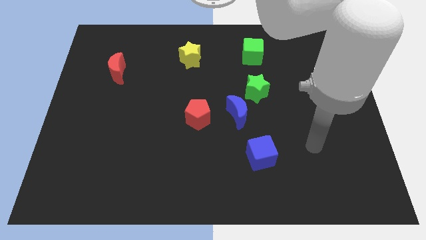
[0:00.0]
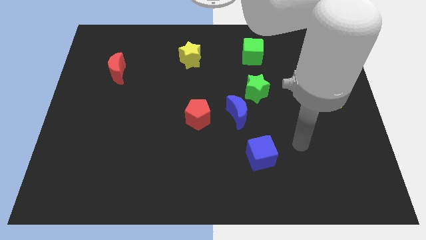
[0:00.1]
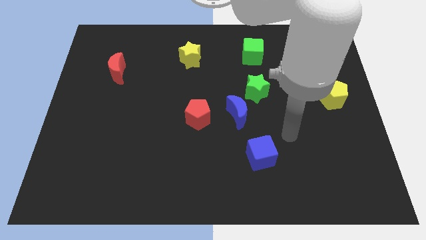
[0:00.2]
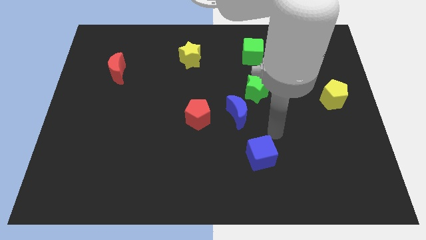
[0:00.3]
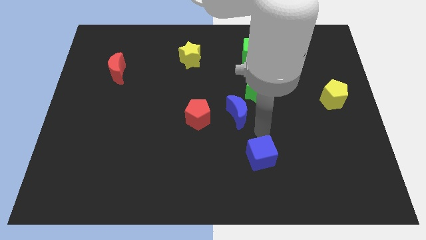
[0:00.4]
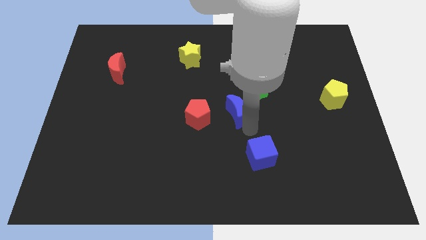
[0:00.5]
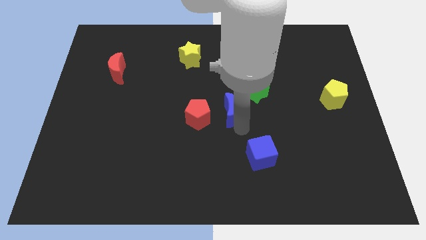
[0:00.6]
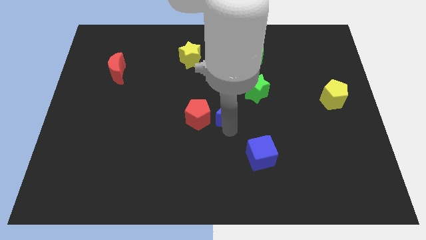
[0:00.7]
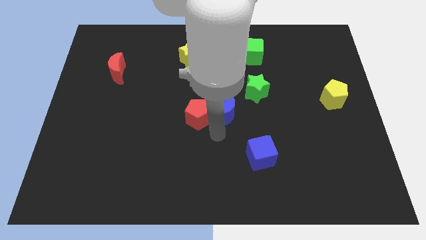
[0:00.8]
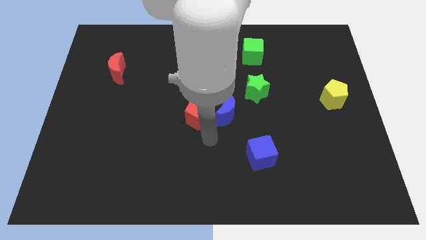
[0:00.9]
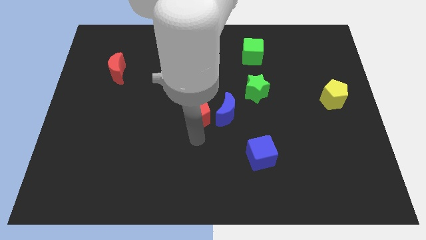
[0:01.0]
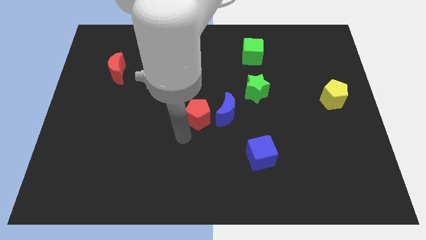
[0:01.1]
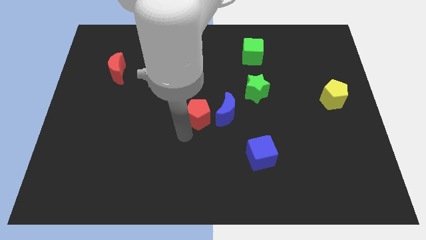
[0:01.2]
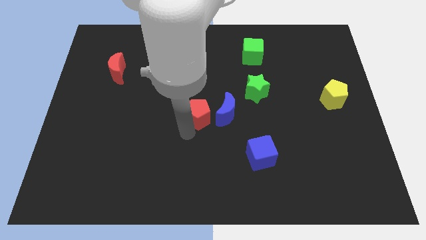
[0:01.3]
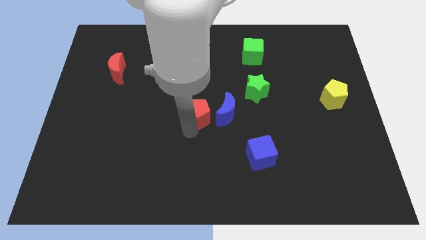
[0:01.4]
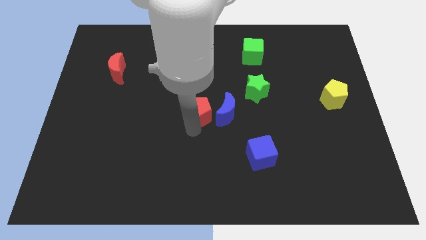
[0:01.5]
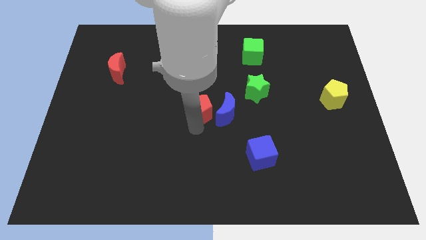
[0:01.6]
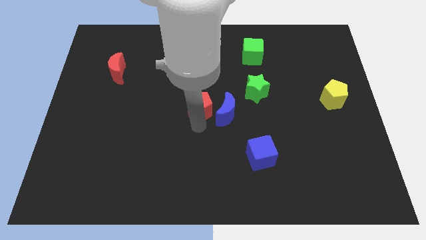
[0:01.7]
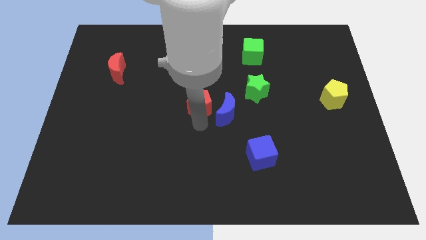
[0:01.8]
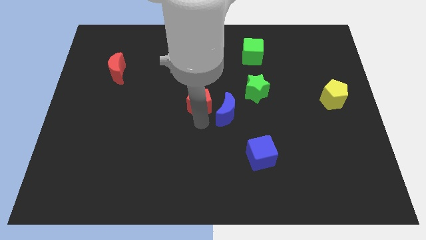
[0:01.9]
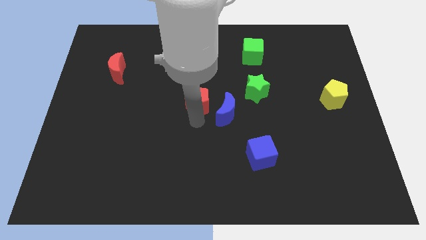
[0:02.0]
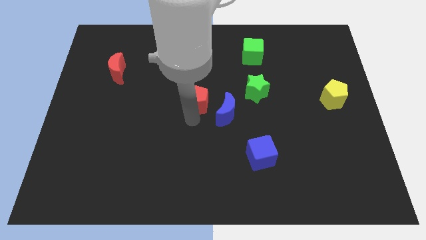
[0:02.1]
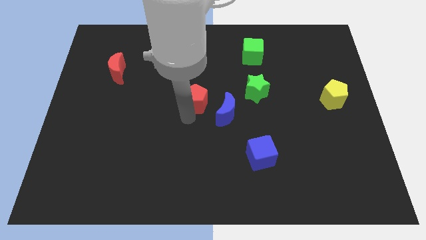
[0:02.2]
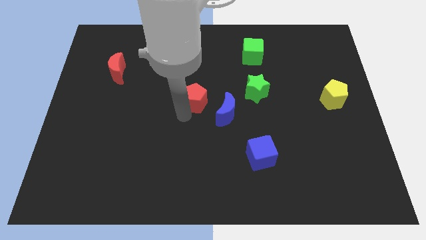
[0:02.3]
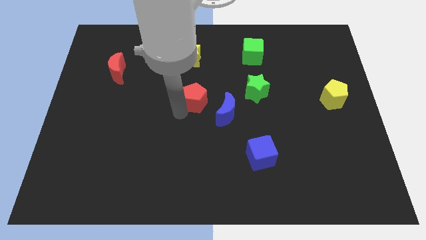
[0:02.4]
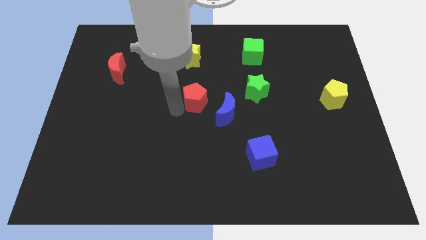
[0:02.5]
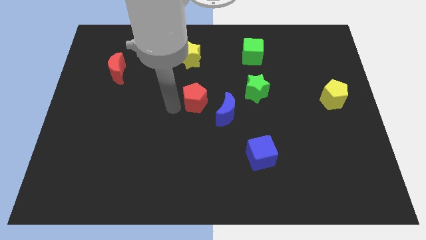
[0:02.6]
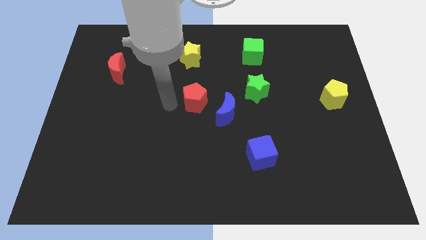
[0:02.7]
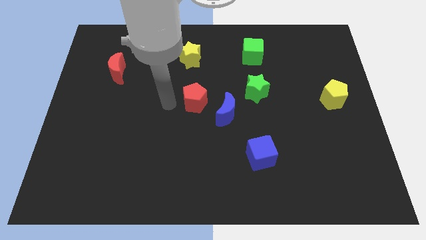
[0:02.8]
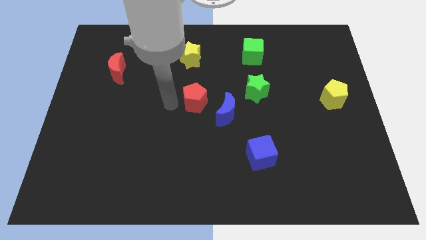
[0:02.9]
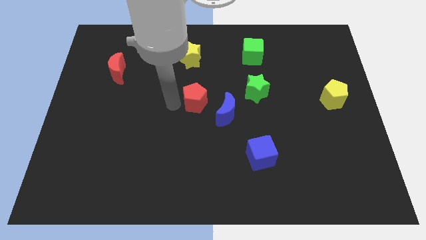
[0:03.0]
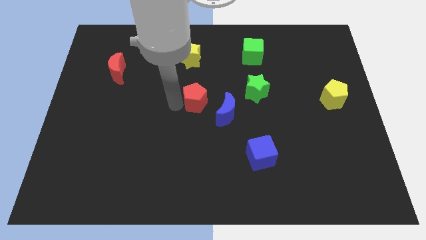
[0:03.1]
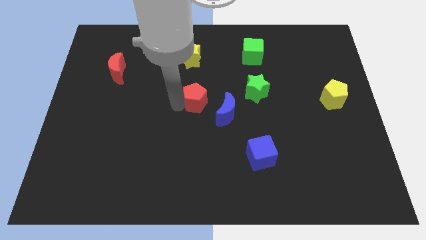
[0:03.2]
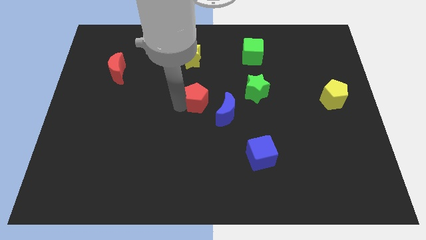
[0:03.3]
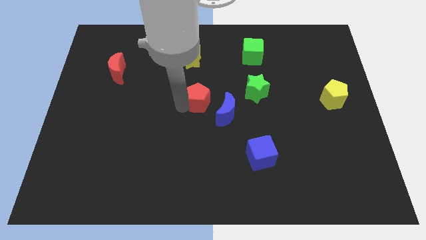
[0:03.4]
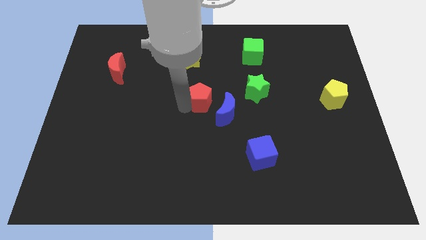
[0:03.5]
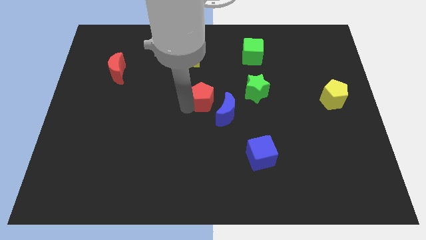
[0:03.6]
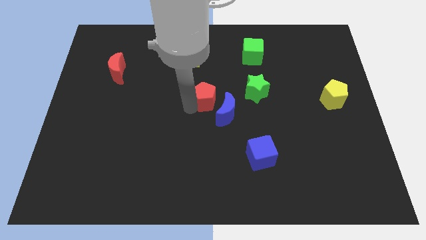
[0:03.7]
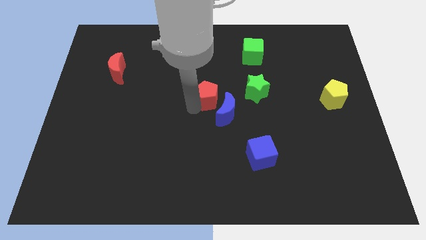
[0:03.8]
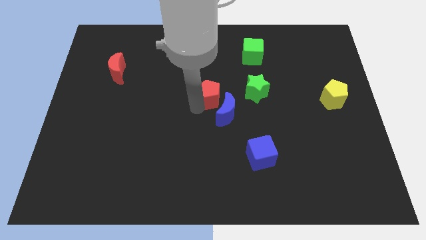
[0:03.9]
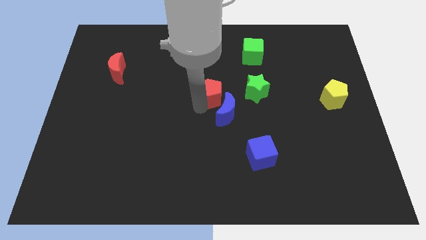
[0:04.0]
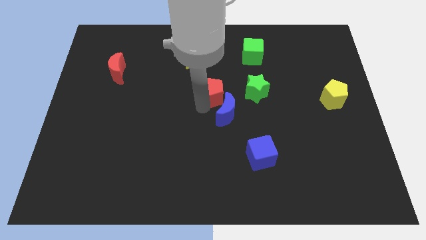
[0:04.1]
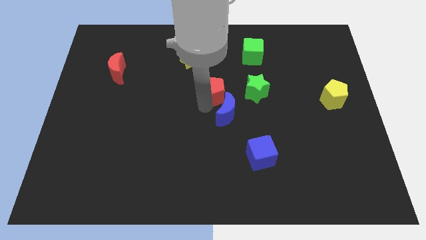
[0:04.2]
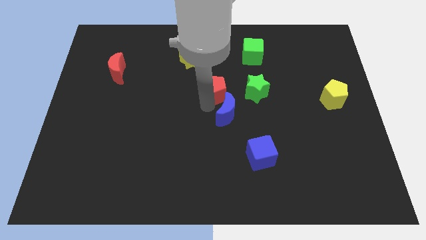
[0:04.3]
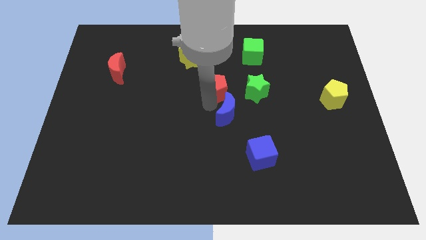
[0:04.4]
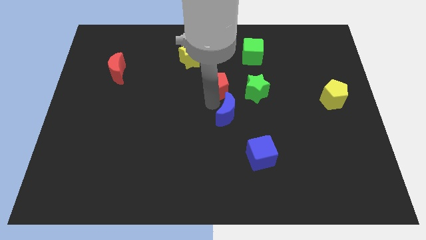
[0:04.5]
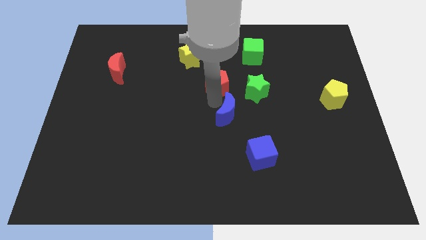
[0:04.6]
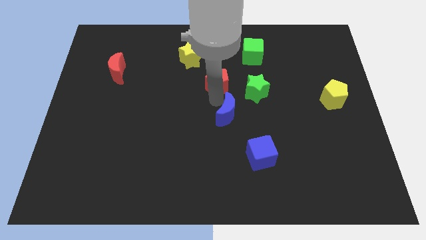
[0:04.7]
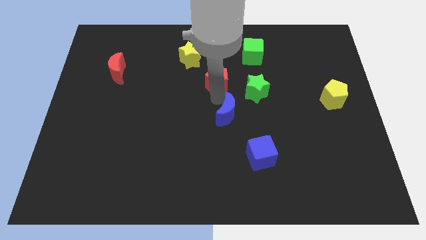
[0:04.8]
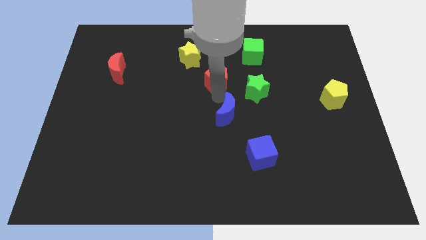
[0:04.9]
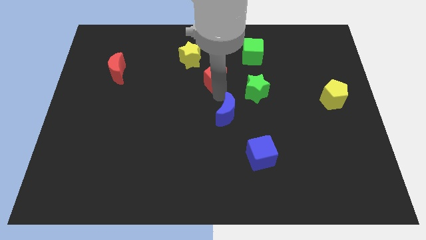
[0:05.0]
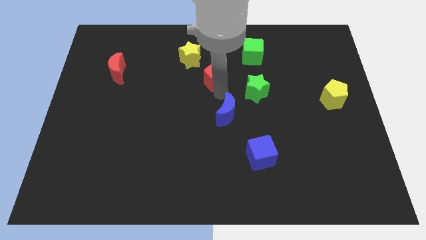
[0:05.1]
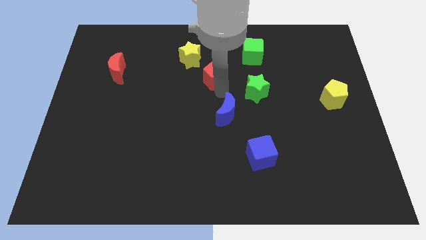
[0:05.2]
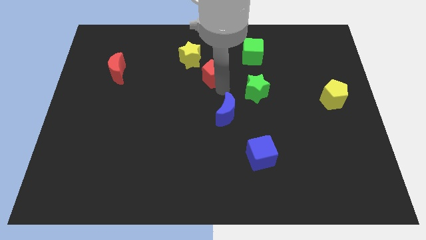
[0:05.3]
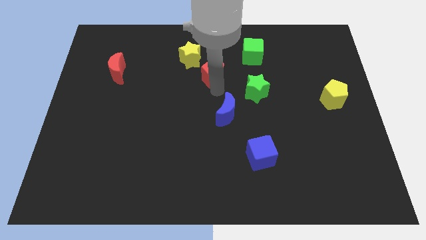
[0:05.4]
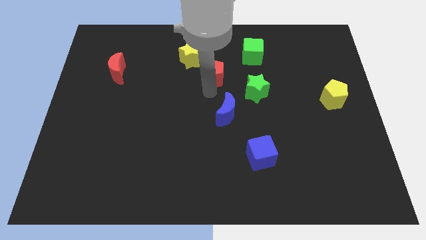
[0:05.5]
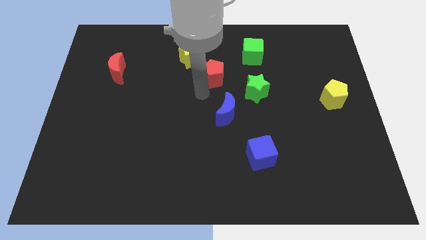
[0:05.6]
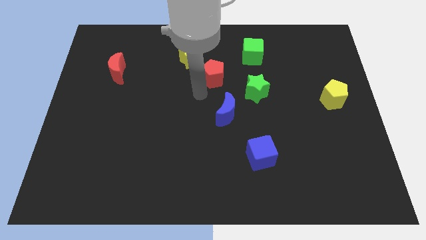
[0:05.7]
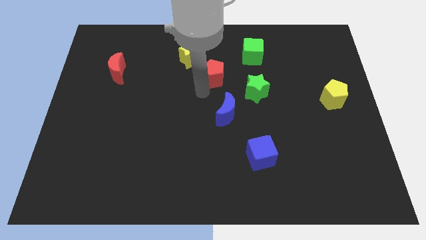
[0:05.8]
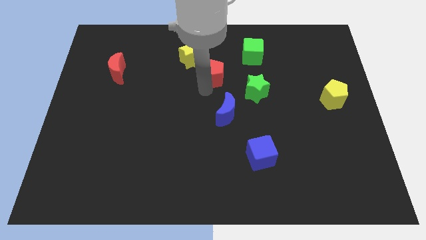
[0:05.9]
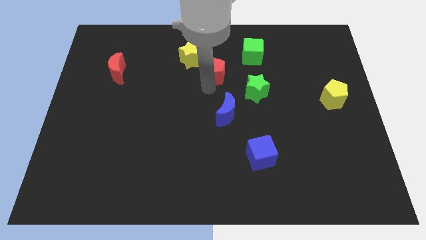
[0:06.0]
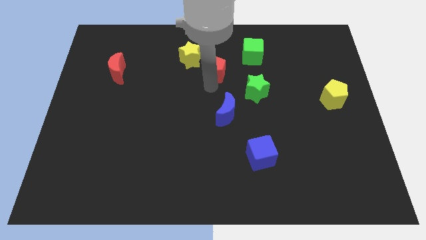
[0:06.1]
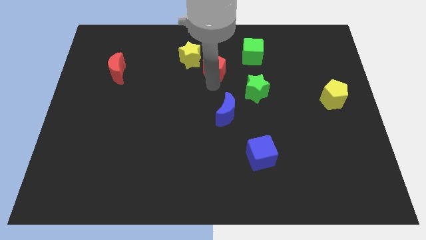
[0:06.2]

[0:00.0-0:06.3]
move the red pentagon to the right side of the yellow star

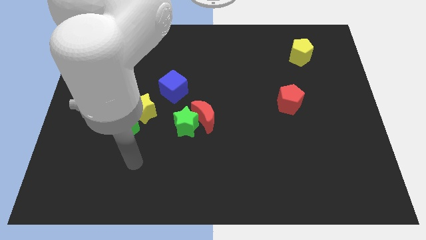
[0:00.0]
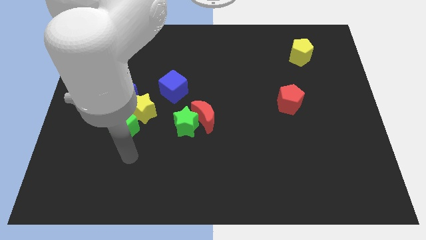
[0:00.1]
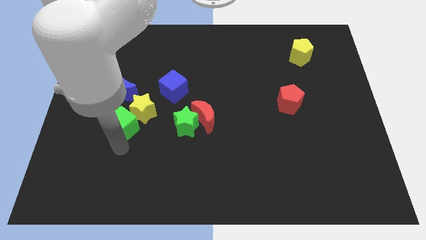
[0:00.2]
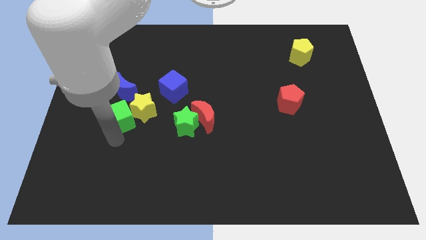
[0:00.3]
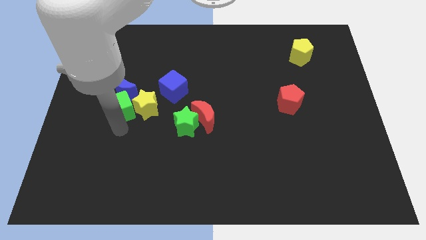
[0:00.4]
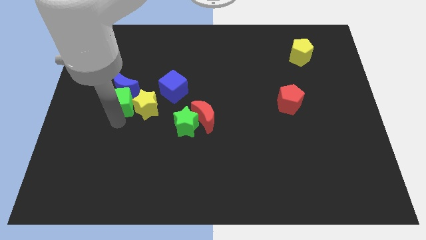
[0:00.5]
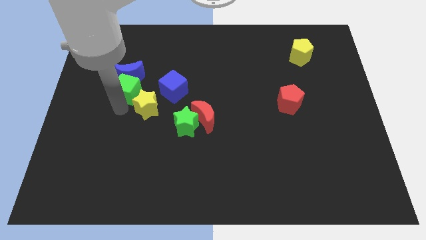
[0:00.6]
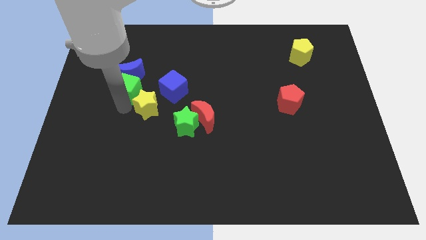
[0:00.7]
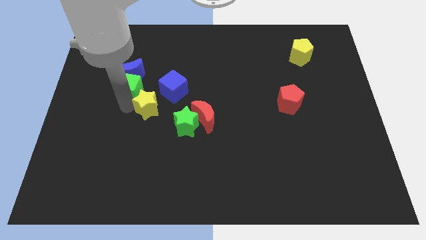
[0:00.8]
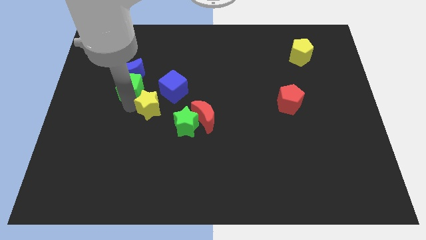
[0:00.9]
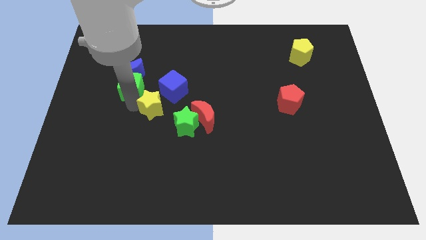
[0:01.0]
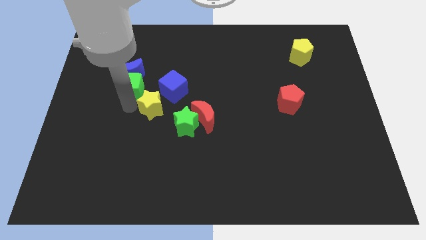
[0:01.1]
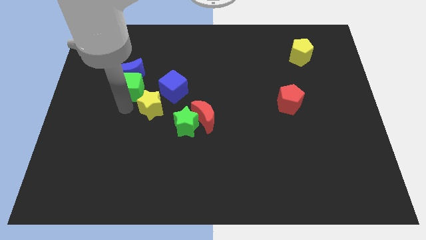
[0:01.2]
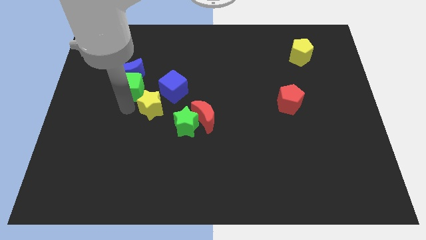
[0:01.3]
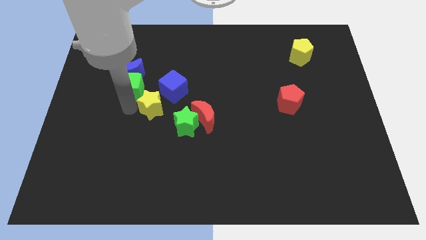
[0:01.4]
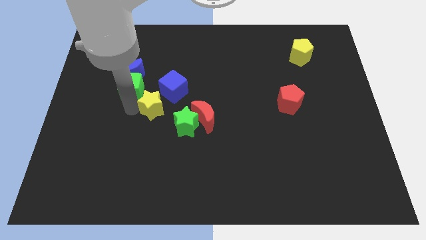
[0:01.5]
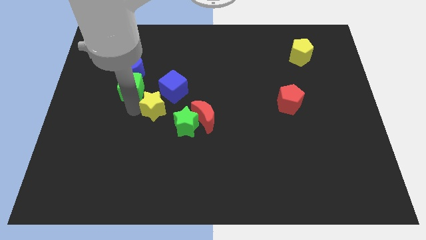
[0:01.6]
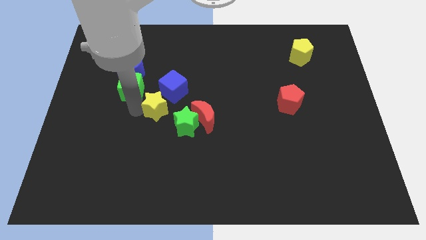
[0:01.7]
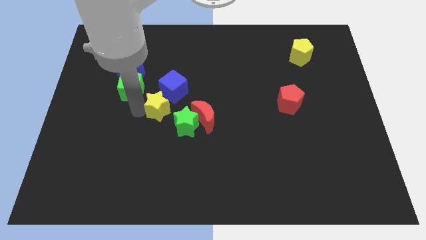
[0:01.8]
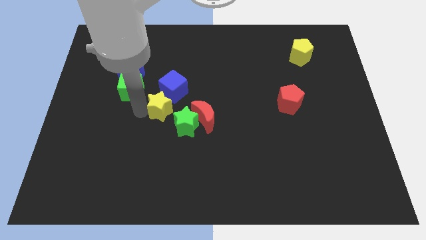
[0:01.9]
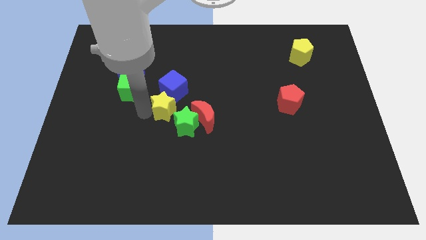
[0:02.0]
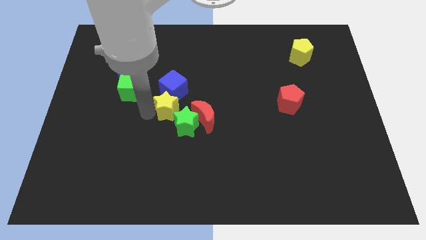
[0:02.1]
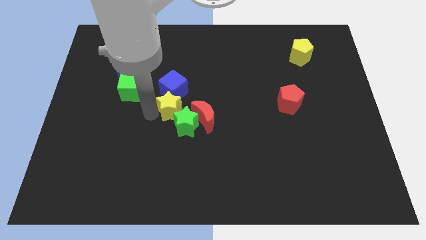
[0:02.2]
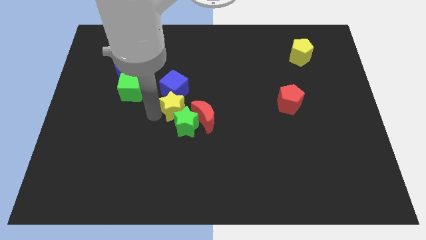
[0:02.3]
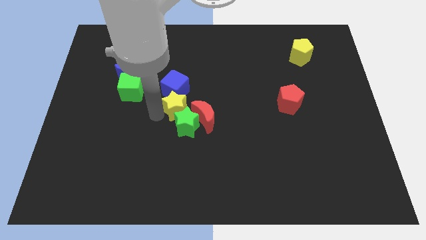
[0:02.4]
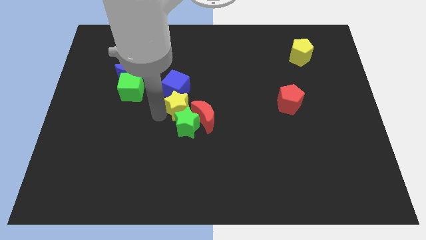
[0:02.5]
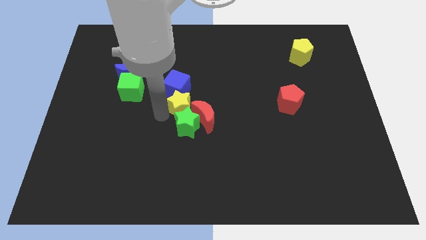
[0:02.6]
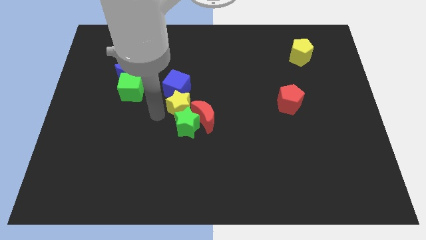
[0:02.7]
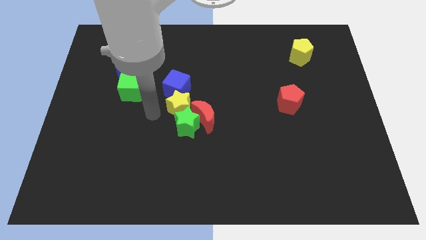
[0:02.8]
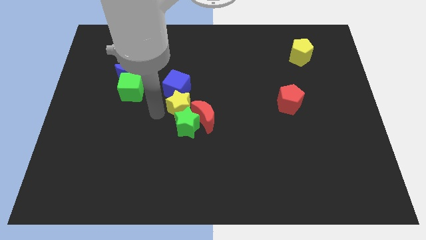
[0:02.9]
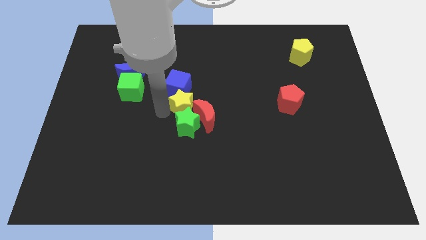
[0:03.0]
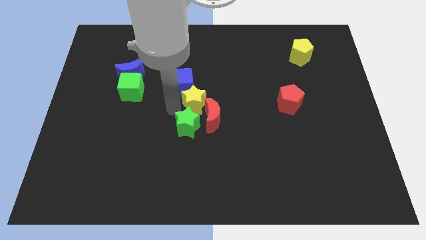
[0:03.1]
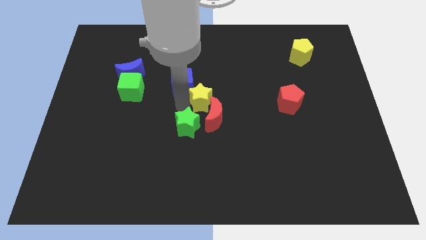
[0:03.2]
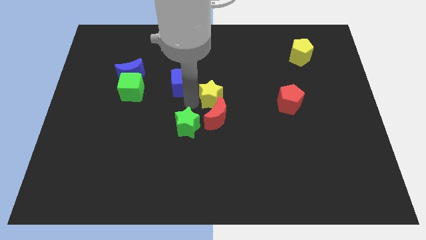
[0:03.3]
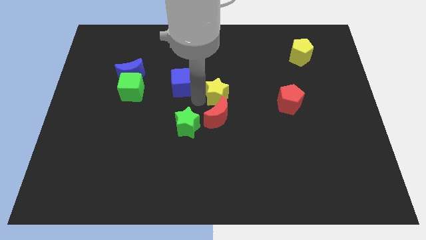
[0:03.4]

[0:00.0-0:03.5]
move the yellow star to the top right of the red moon
